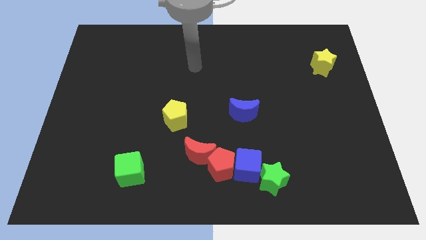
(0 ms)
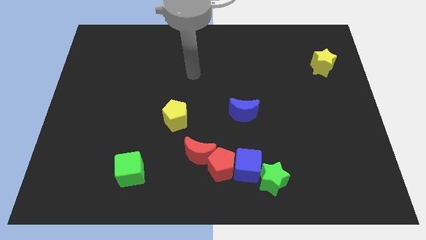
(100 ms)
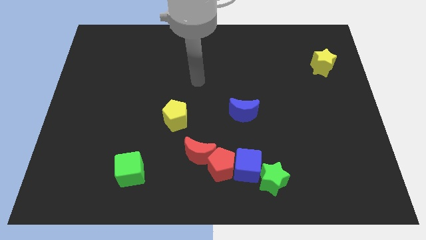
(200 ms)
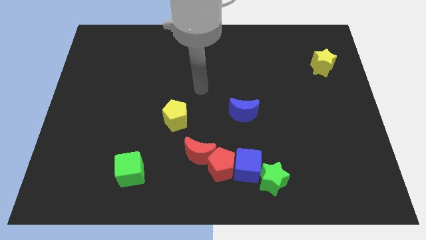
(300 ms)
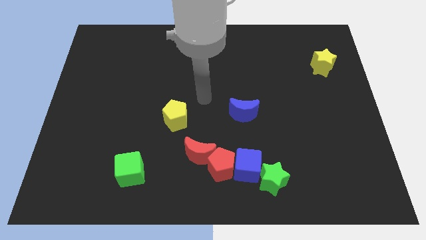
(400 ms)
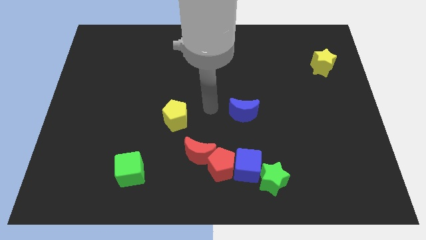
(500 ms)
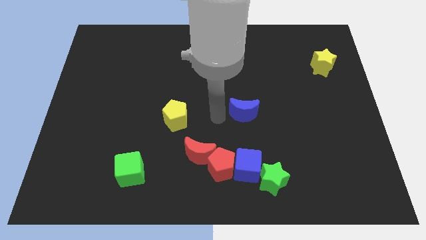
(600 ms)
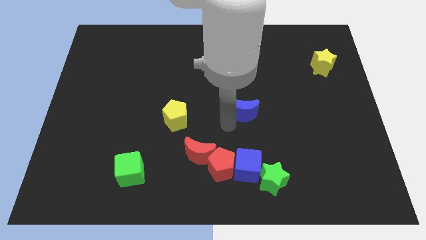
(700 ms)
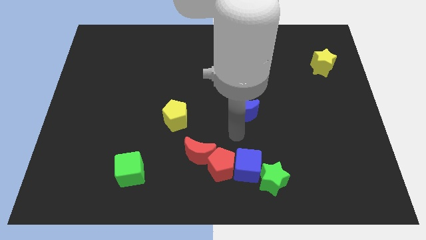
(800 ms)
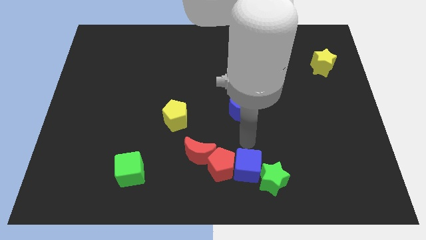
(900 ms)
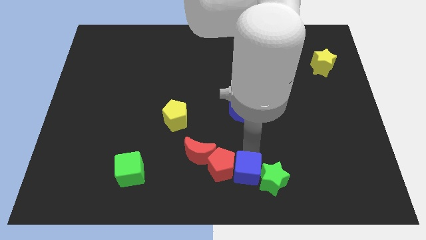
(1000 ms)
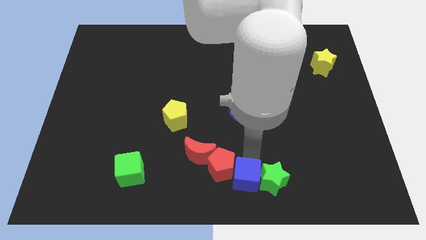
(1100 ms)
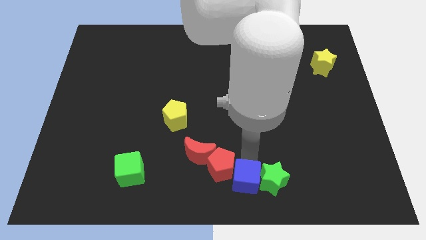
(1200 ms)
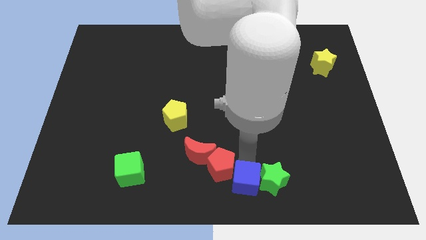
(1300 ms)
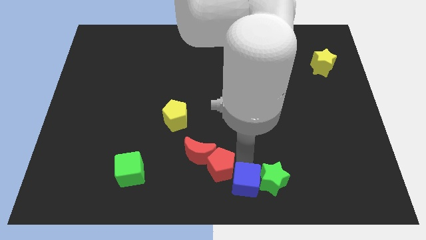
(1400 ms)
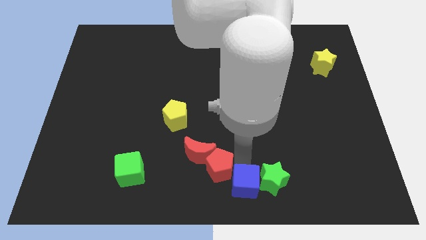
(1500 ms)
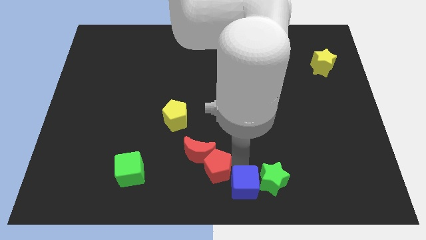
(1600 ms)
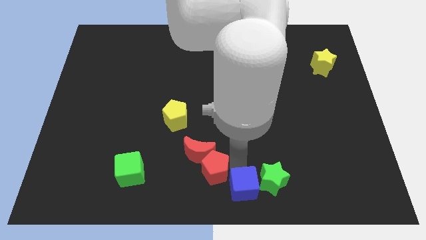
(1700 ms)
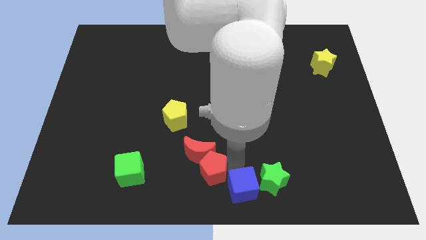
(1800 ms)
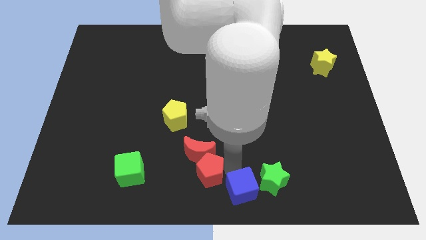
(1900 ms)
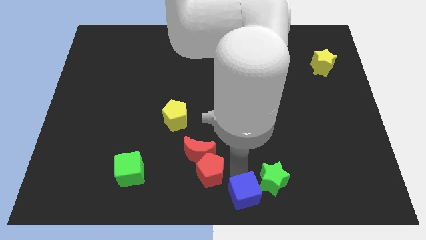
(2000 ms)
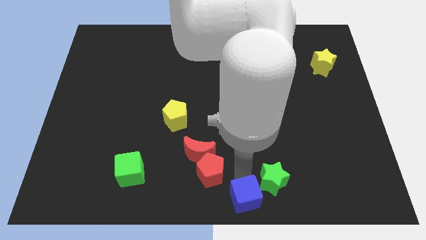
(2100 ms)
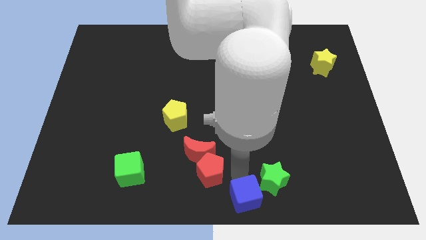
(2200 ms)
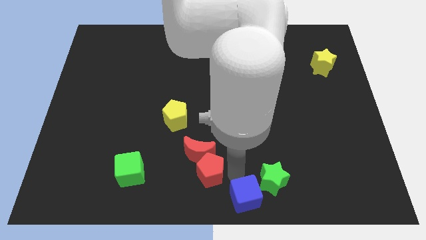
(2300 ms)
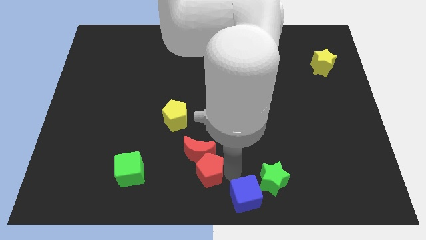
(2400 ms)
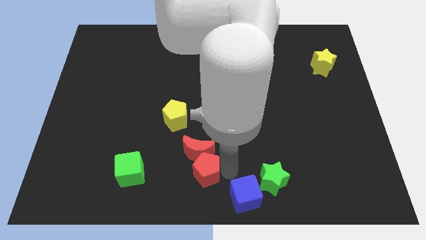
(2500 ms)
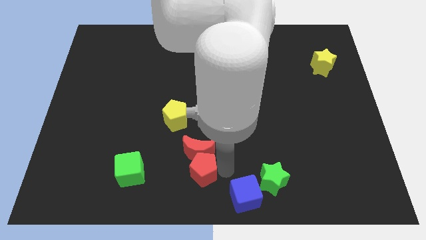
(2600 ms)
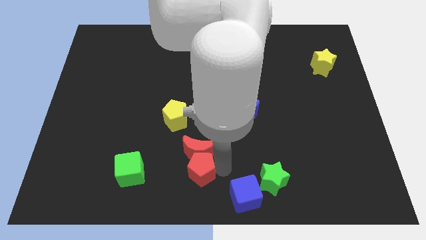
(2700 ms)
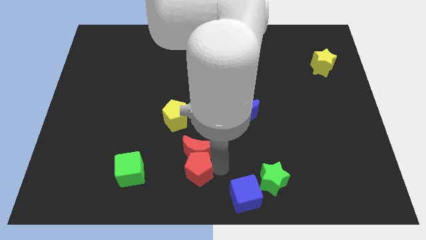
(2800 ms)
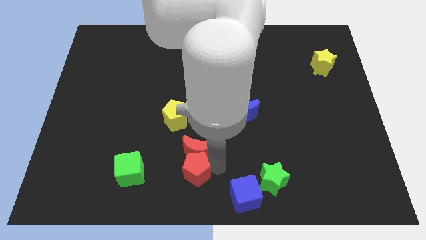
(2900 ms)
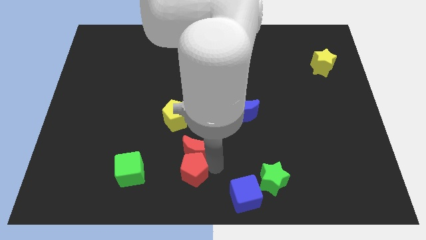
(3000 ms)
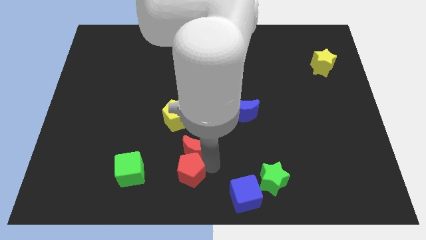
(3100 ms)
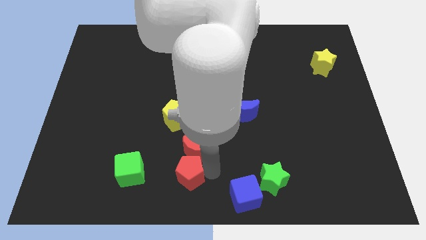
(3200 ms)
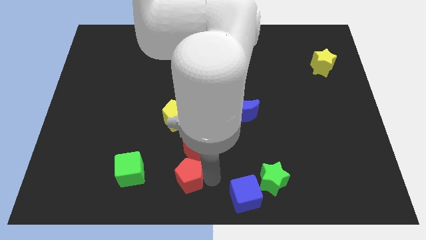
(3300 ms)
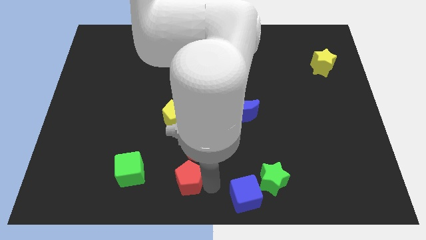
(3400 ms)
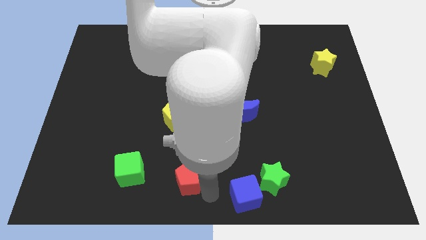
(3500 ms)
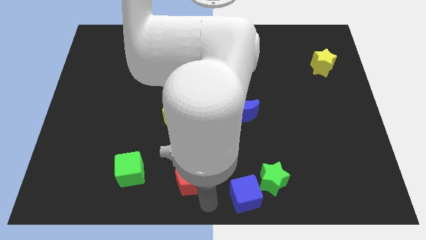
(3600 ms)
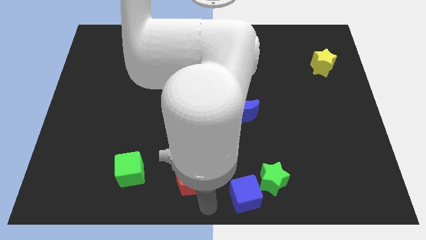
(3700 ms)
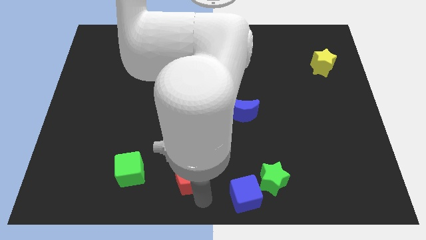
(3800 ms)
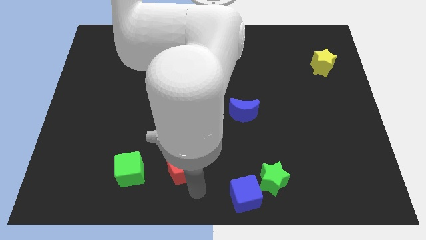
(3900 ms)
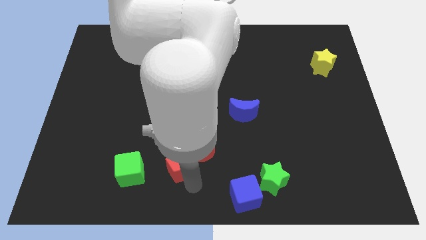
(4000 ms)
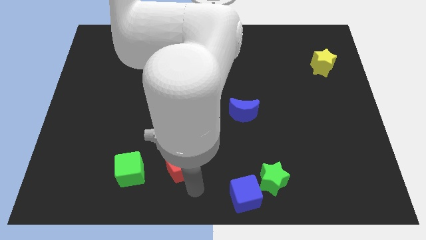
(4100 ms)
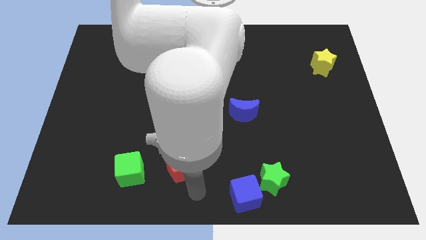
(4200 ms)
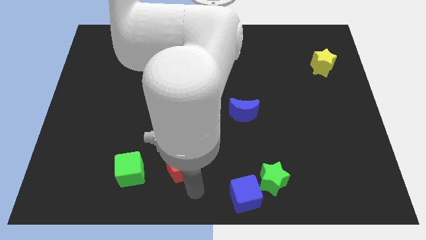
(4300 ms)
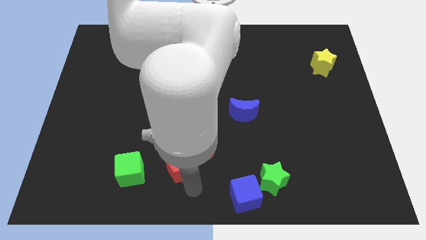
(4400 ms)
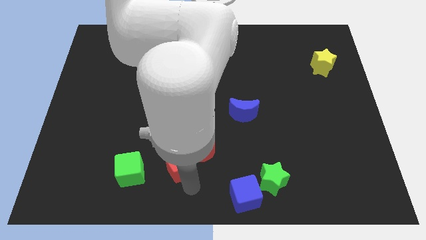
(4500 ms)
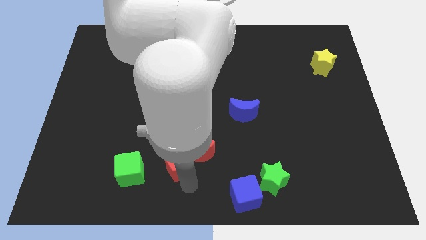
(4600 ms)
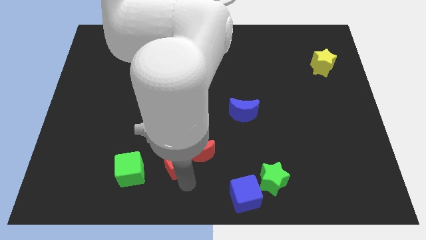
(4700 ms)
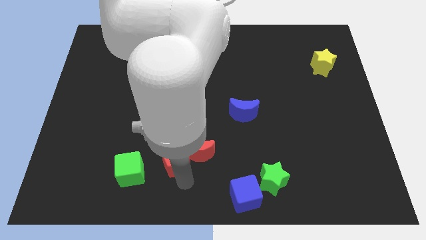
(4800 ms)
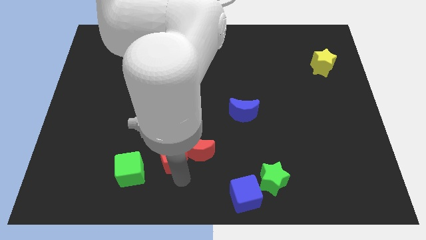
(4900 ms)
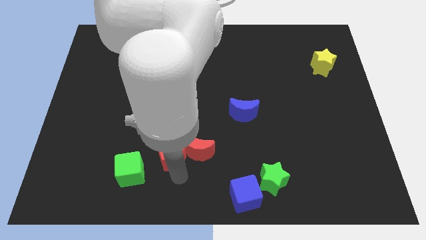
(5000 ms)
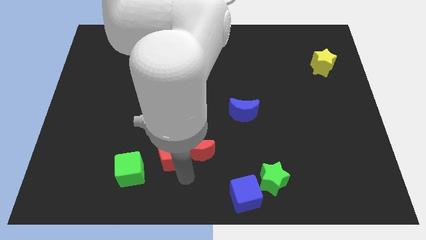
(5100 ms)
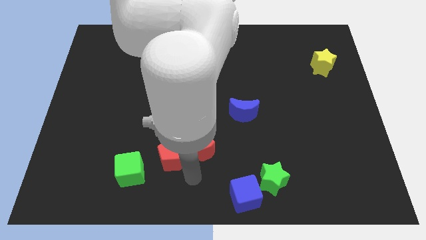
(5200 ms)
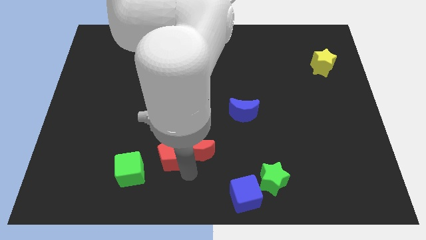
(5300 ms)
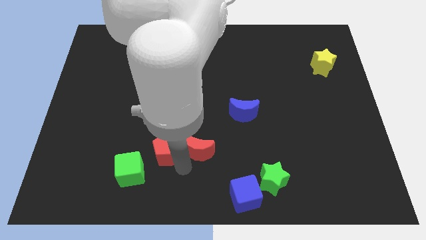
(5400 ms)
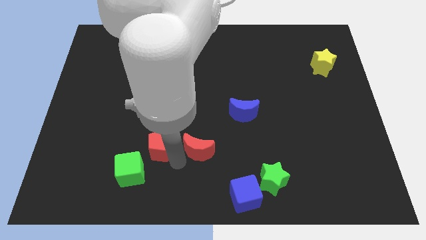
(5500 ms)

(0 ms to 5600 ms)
put the red pentagon diagonally down and to the left of the yellow pentagon

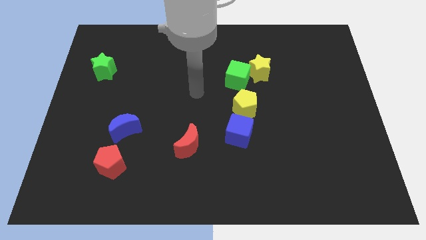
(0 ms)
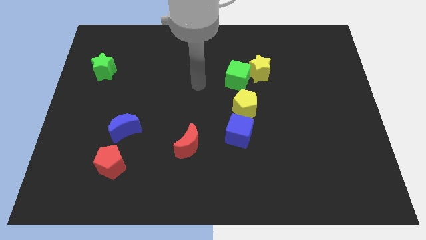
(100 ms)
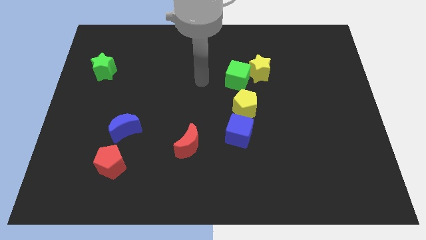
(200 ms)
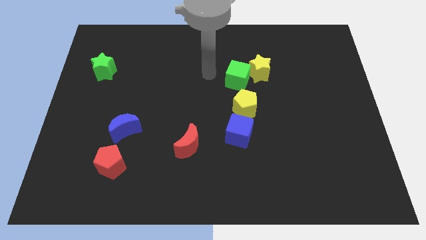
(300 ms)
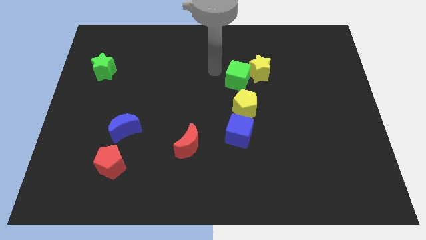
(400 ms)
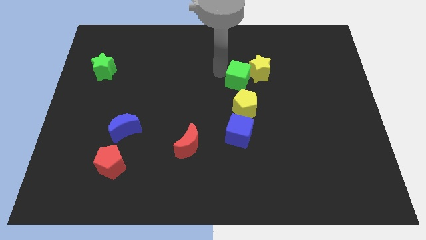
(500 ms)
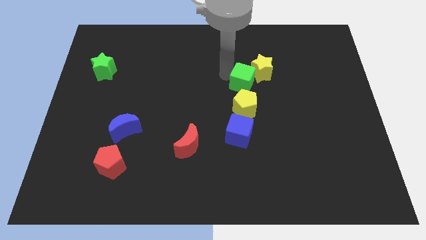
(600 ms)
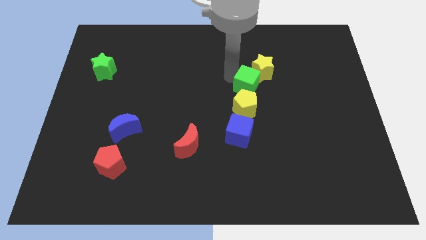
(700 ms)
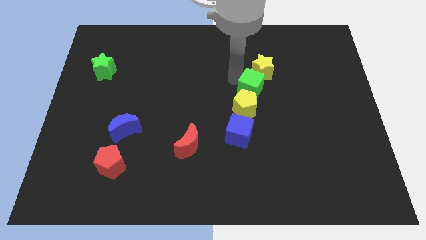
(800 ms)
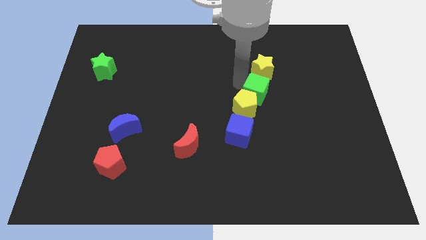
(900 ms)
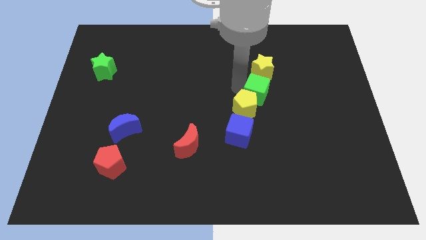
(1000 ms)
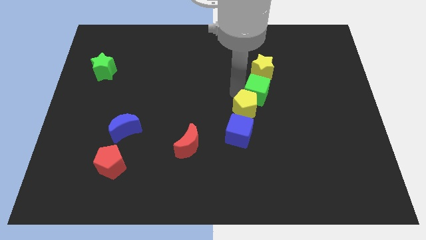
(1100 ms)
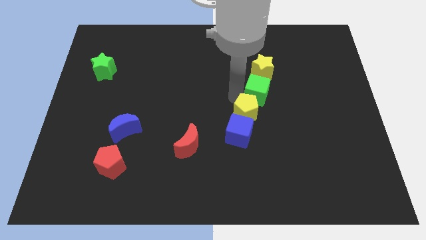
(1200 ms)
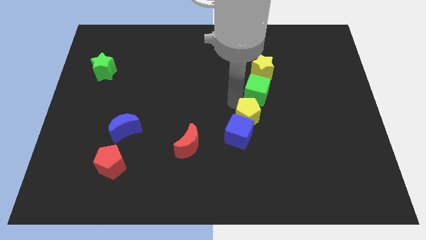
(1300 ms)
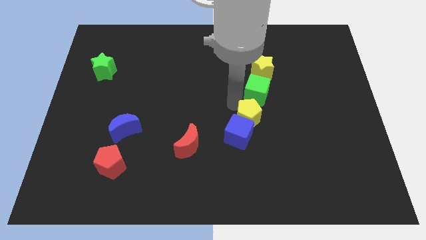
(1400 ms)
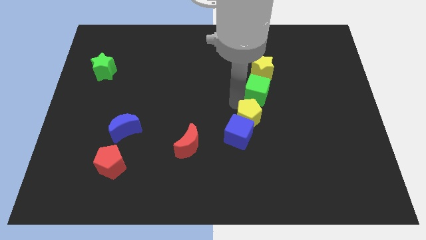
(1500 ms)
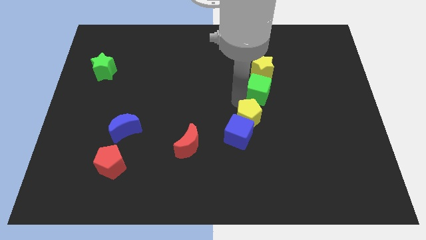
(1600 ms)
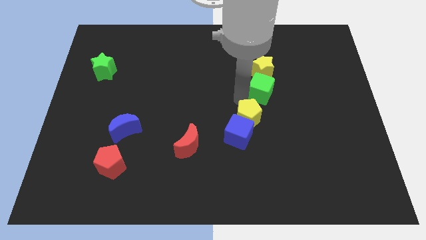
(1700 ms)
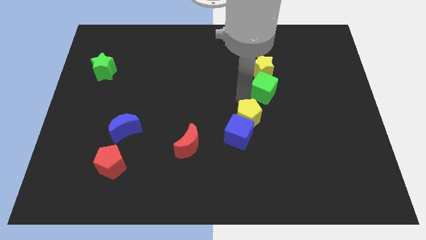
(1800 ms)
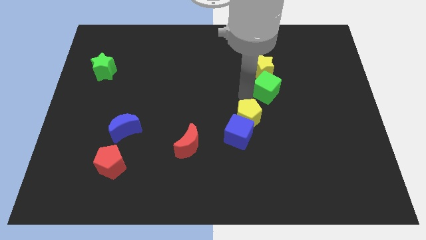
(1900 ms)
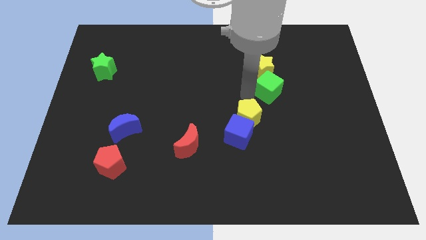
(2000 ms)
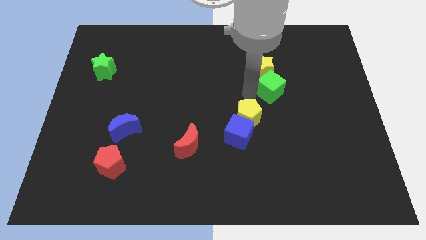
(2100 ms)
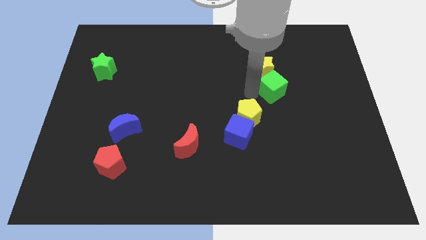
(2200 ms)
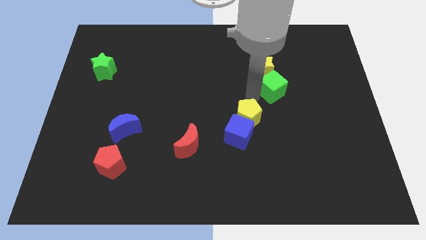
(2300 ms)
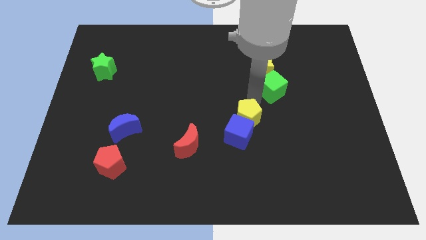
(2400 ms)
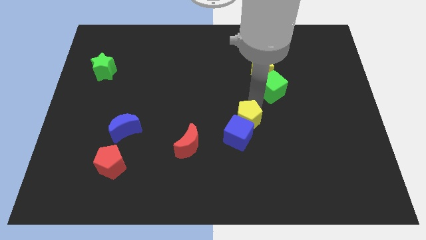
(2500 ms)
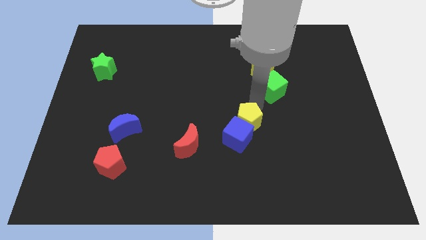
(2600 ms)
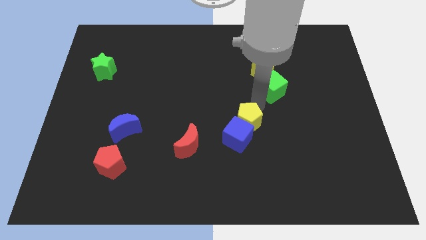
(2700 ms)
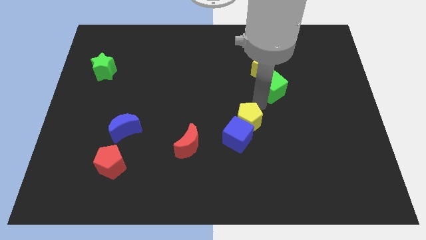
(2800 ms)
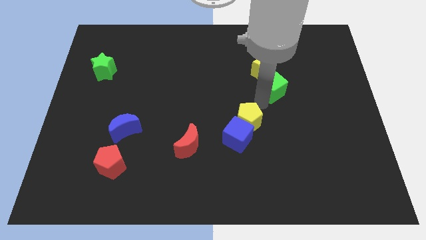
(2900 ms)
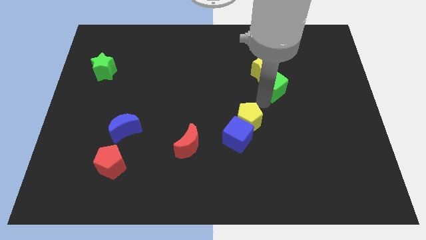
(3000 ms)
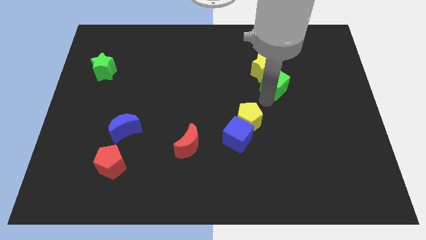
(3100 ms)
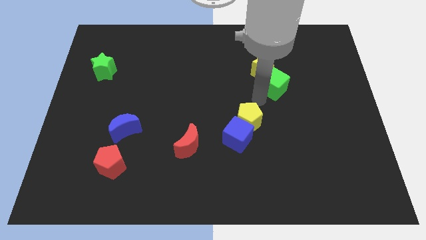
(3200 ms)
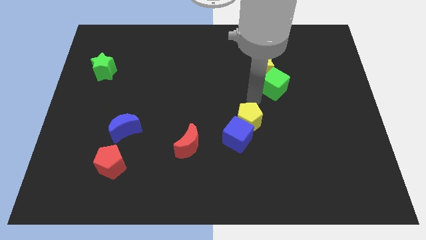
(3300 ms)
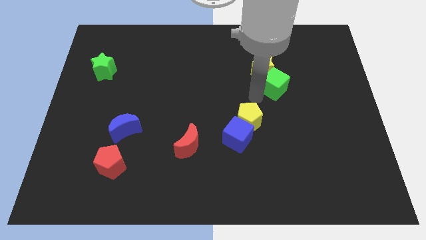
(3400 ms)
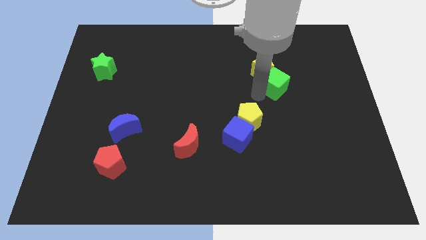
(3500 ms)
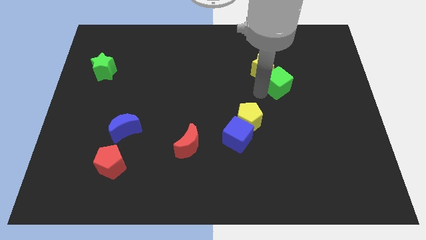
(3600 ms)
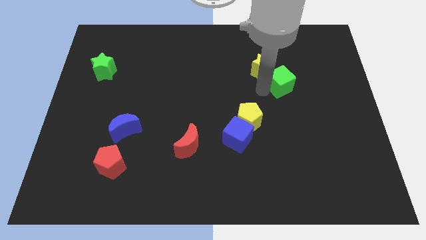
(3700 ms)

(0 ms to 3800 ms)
put the green cube right of the yellow star
